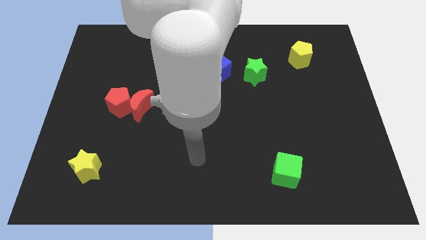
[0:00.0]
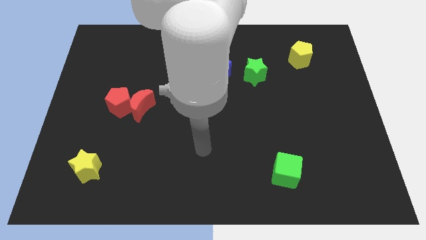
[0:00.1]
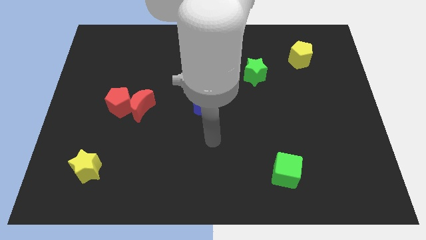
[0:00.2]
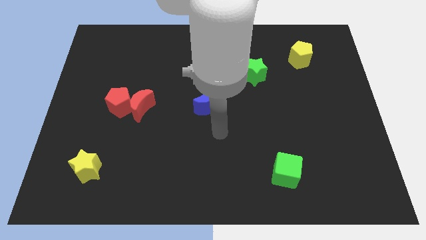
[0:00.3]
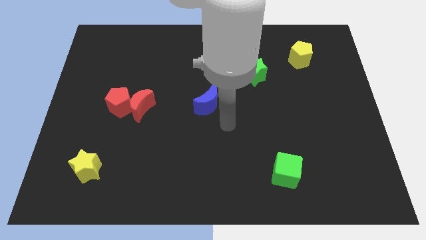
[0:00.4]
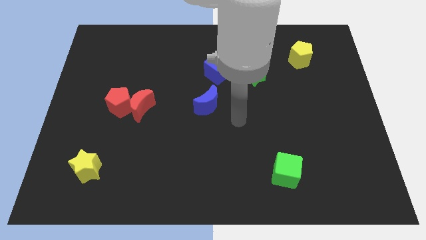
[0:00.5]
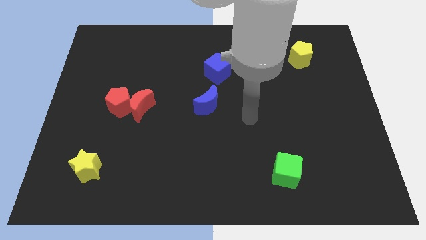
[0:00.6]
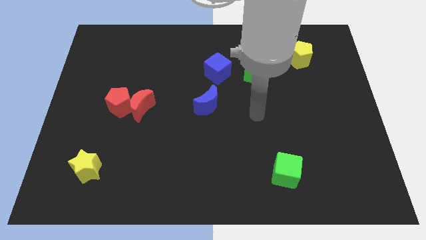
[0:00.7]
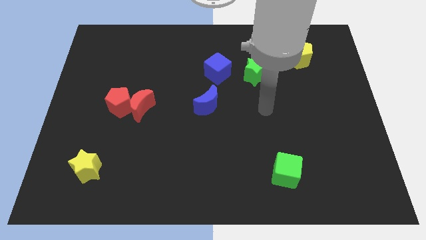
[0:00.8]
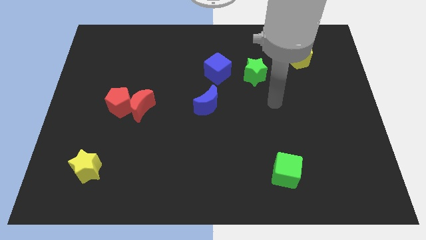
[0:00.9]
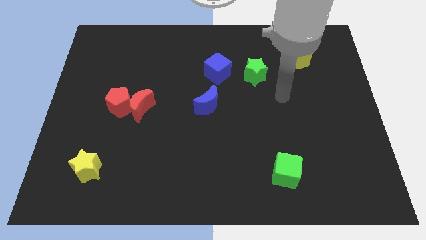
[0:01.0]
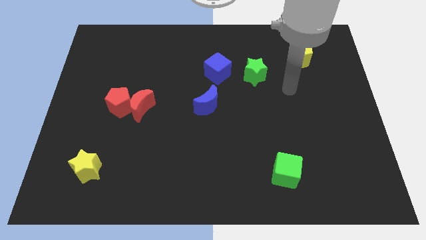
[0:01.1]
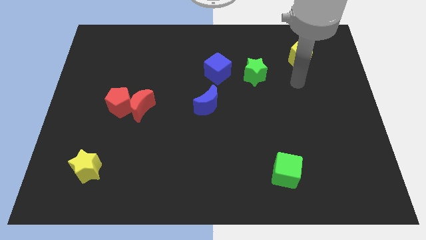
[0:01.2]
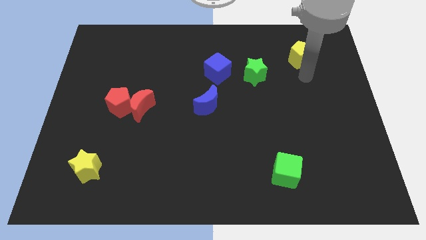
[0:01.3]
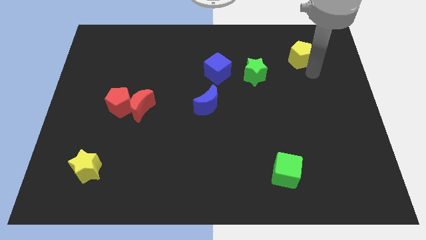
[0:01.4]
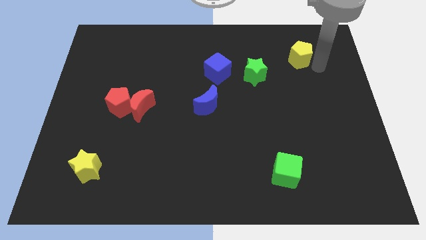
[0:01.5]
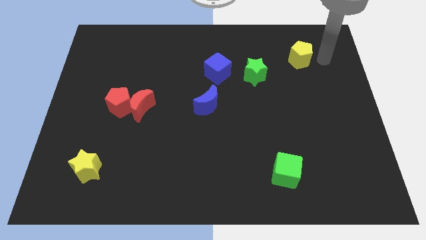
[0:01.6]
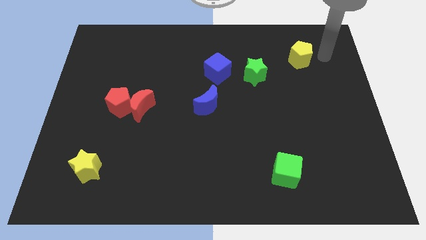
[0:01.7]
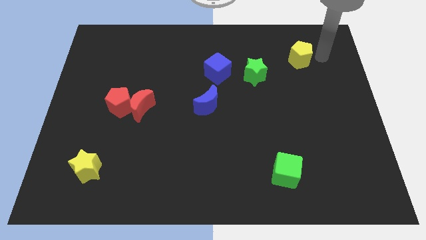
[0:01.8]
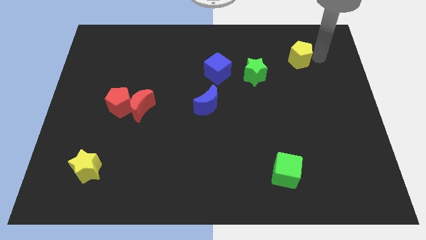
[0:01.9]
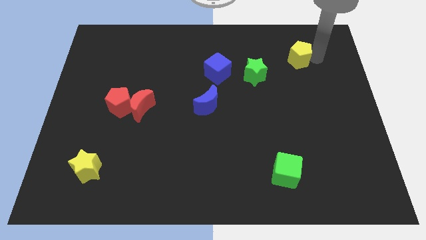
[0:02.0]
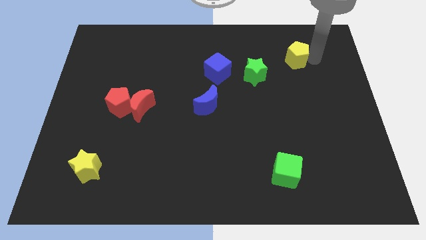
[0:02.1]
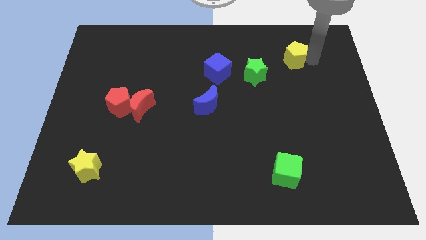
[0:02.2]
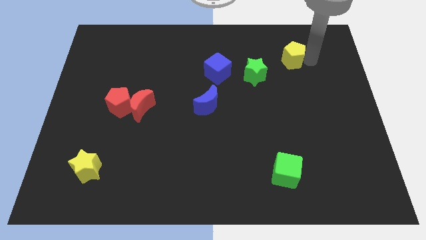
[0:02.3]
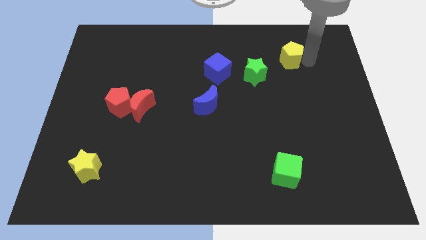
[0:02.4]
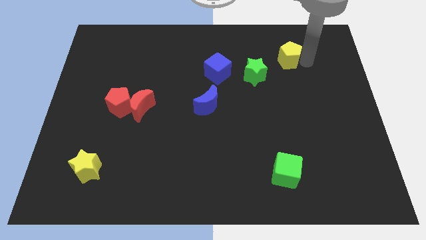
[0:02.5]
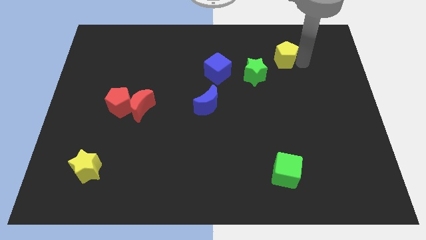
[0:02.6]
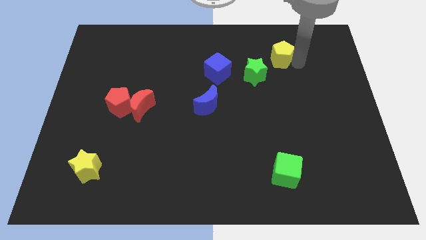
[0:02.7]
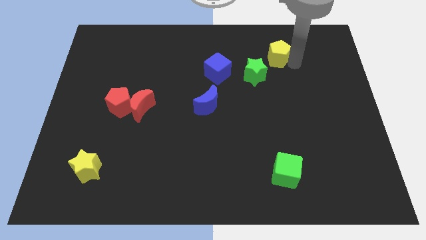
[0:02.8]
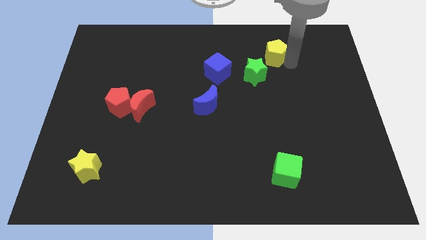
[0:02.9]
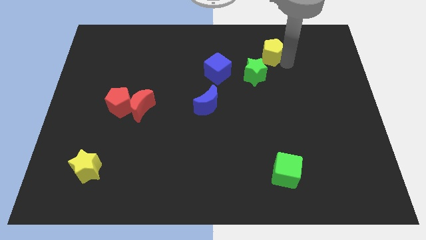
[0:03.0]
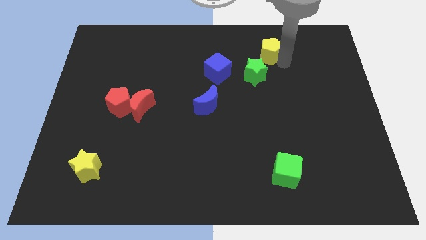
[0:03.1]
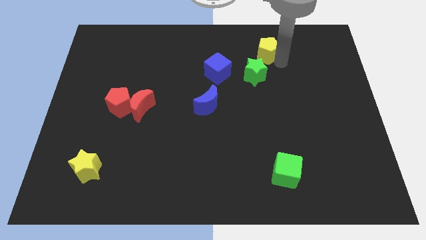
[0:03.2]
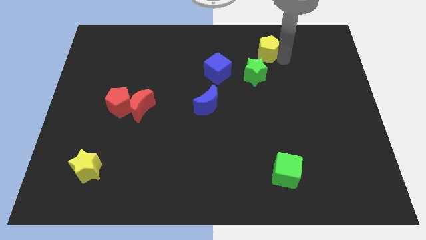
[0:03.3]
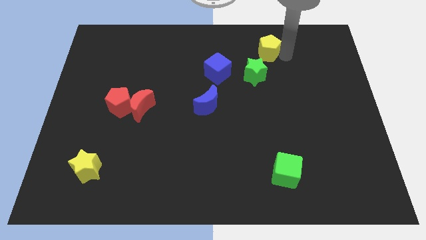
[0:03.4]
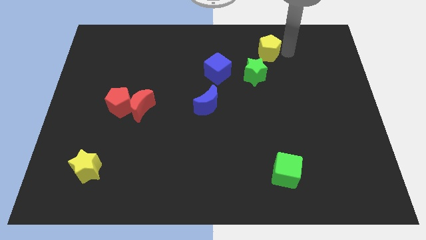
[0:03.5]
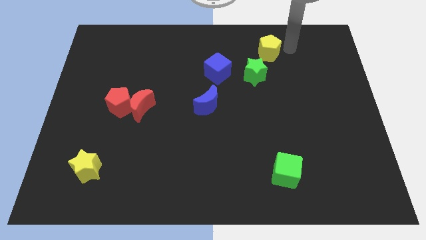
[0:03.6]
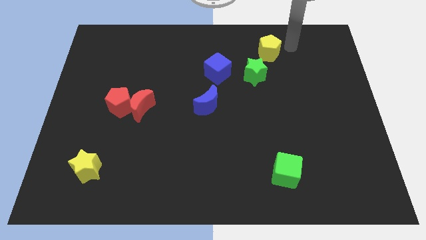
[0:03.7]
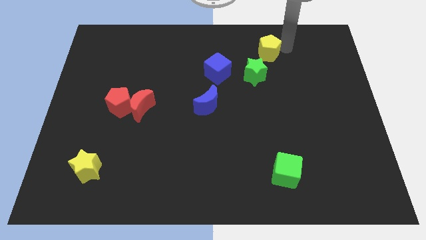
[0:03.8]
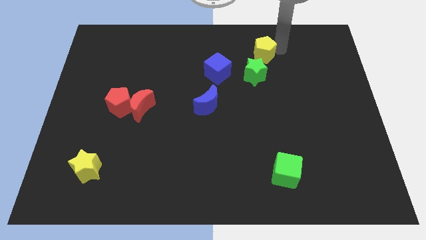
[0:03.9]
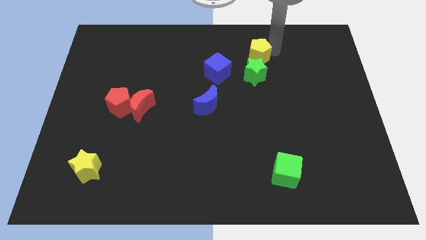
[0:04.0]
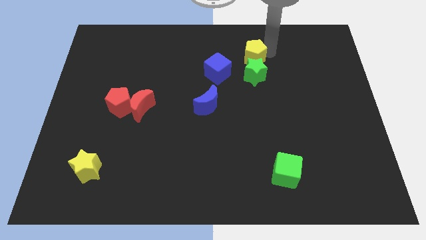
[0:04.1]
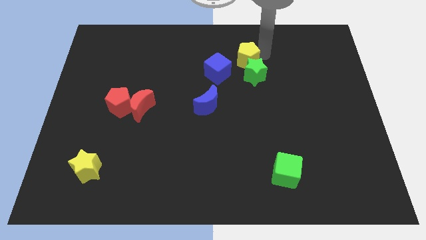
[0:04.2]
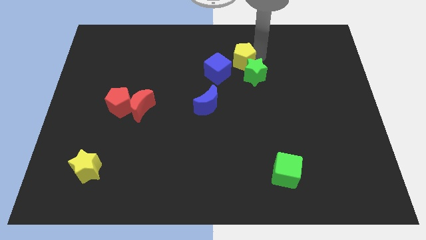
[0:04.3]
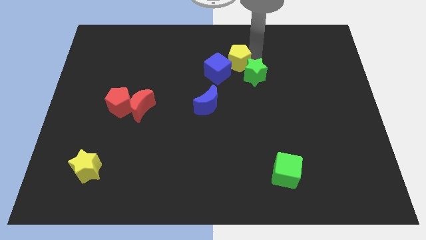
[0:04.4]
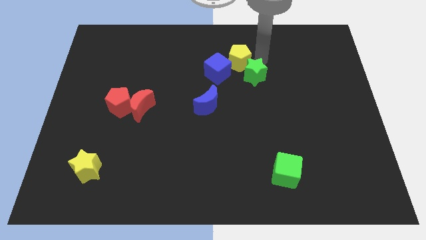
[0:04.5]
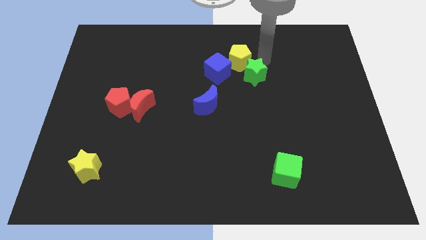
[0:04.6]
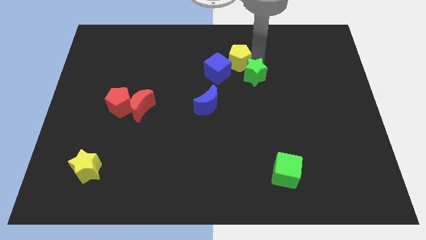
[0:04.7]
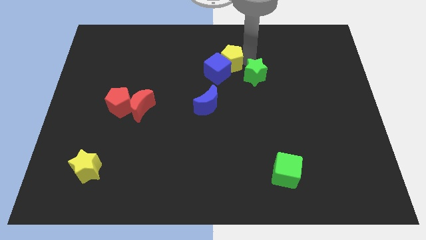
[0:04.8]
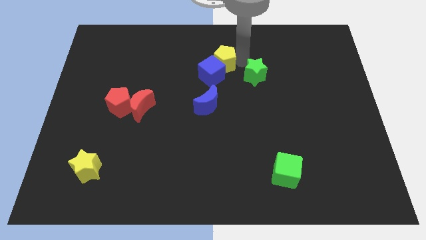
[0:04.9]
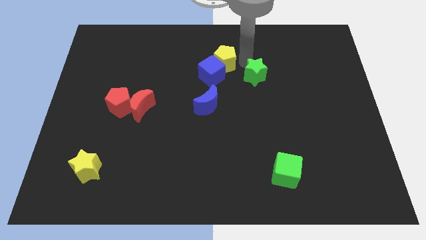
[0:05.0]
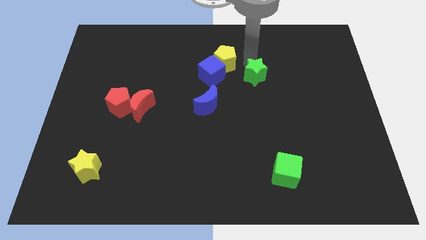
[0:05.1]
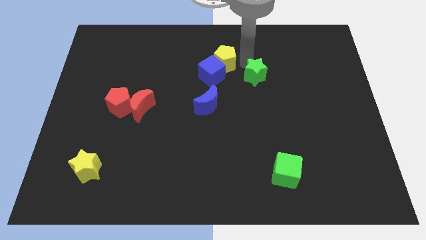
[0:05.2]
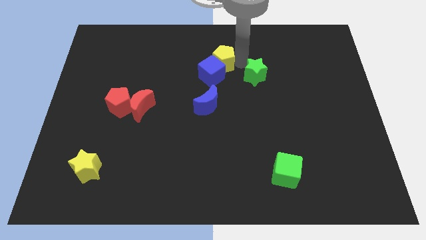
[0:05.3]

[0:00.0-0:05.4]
move the yellow pentagon above the blue moon

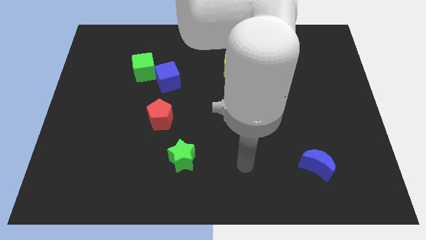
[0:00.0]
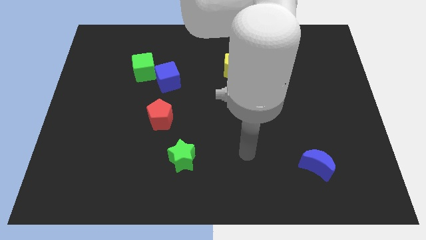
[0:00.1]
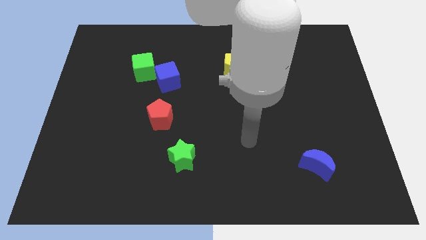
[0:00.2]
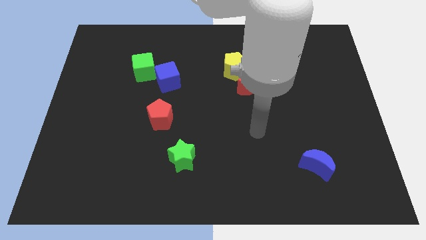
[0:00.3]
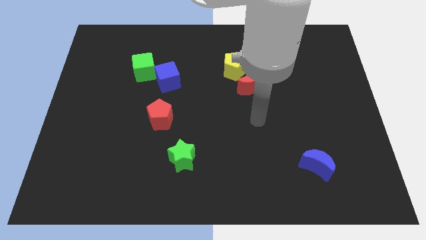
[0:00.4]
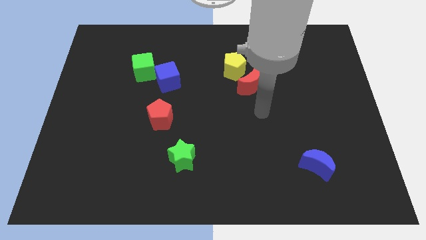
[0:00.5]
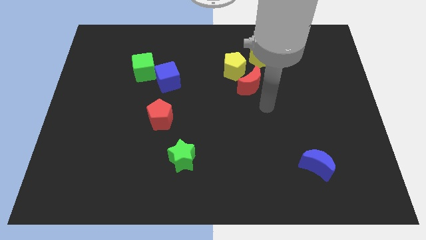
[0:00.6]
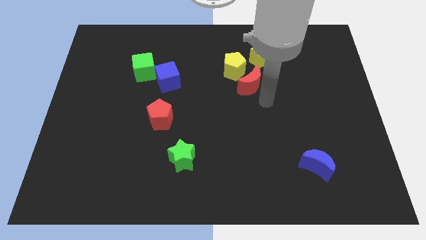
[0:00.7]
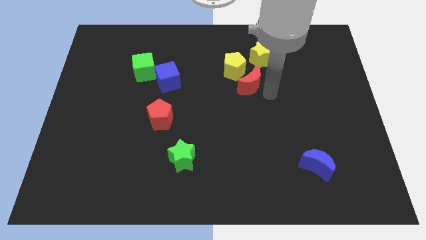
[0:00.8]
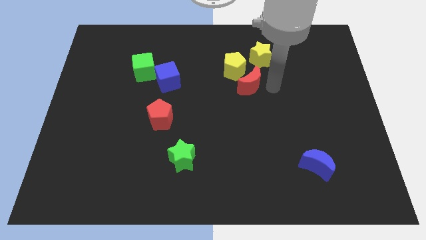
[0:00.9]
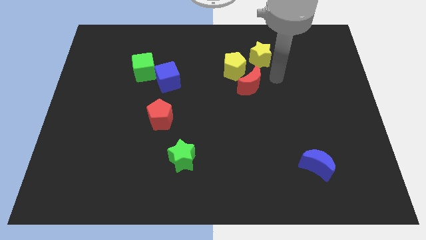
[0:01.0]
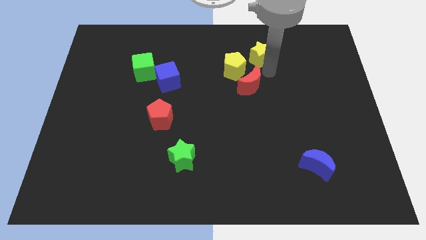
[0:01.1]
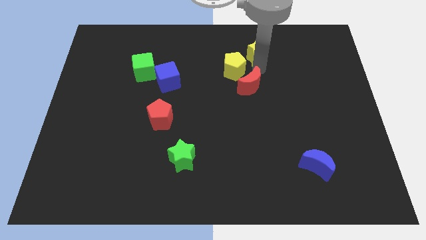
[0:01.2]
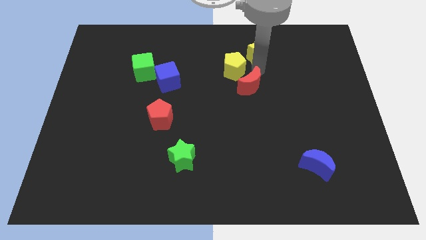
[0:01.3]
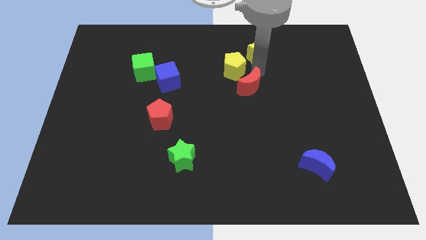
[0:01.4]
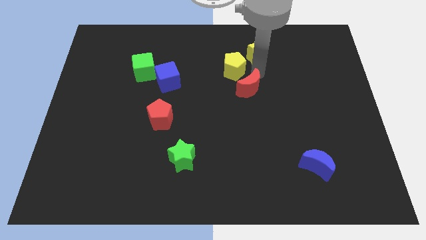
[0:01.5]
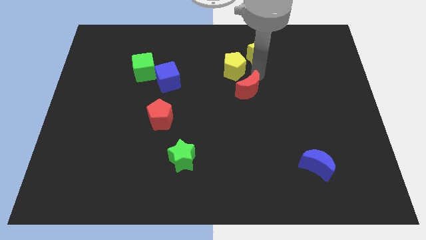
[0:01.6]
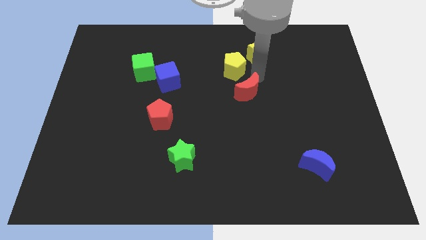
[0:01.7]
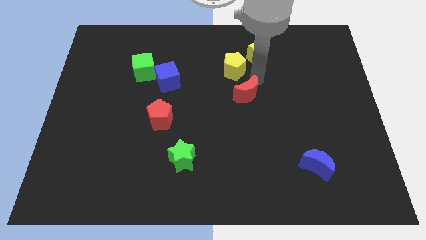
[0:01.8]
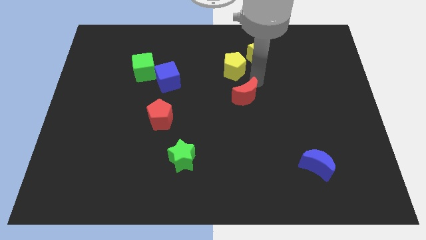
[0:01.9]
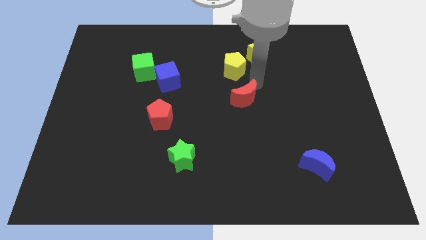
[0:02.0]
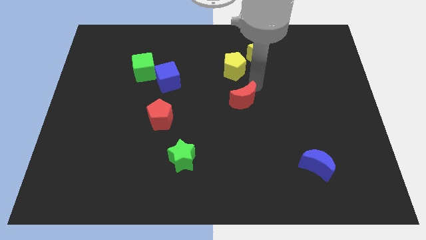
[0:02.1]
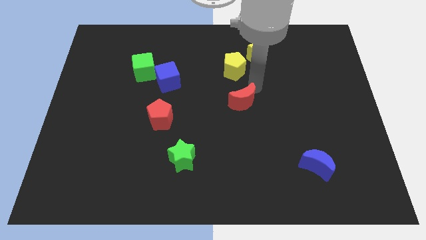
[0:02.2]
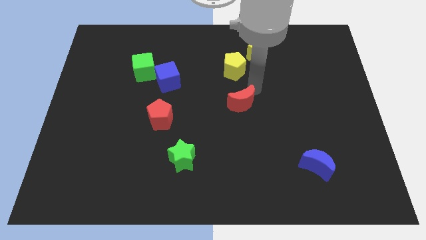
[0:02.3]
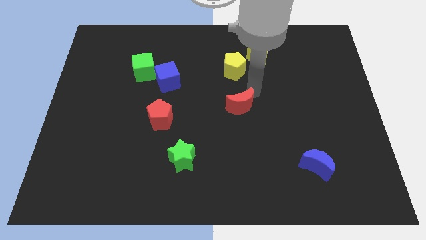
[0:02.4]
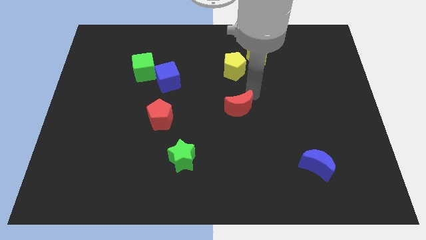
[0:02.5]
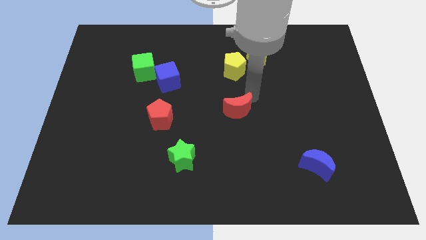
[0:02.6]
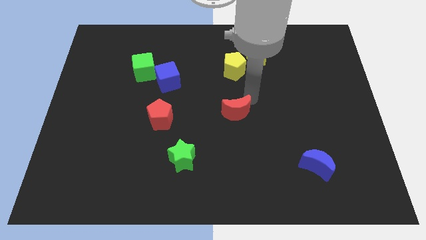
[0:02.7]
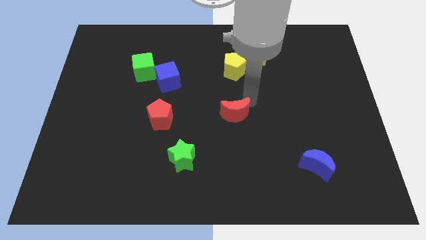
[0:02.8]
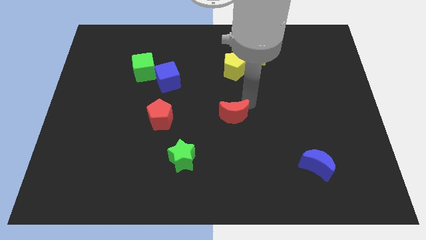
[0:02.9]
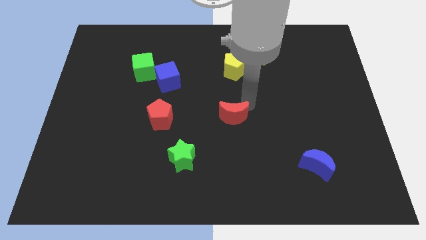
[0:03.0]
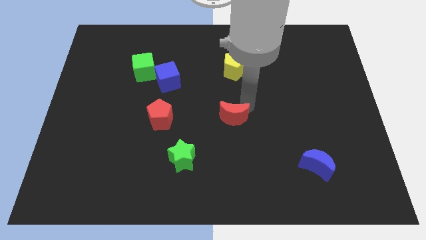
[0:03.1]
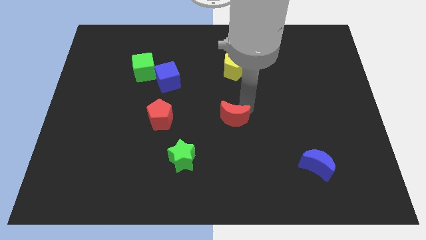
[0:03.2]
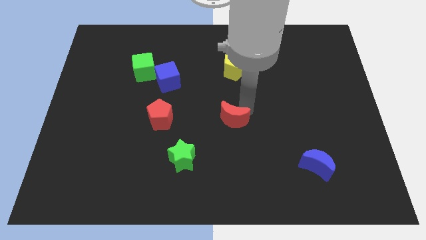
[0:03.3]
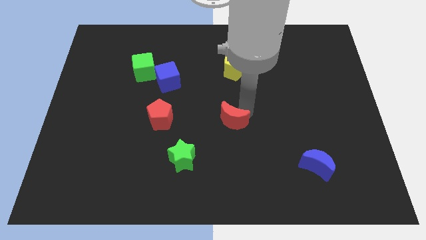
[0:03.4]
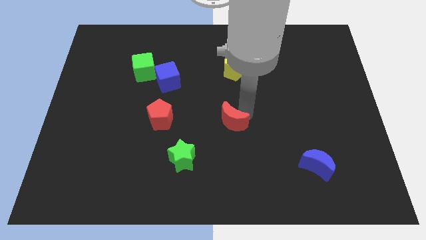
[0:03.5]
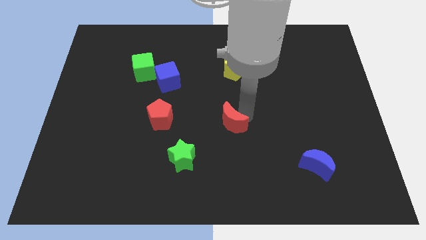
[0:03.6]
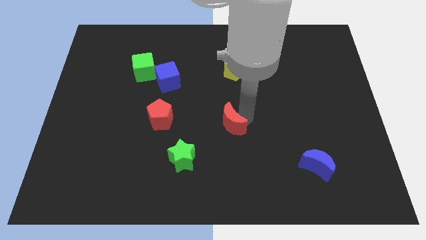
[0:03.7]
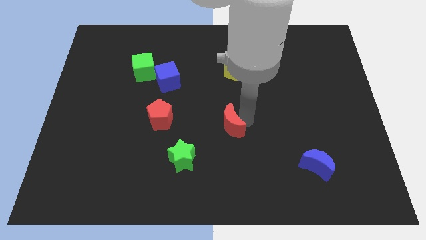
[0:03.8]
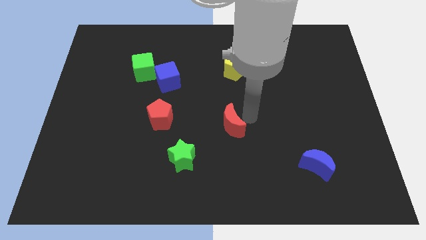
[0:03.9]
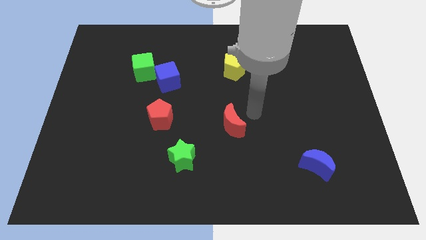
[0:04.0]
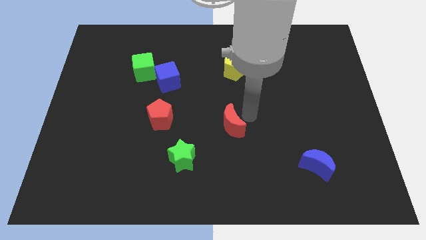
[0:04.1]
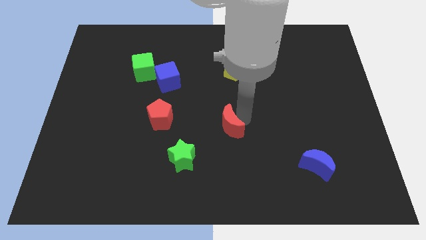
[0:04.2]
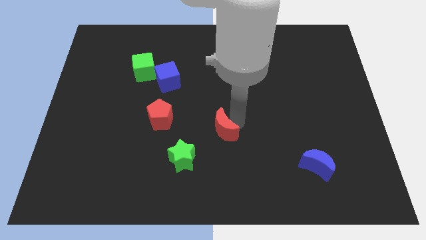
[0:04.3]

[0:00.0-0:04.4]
push the red moon diagonally up and to the right of the green star
